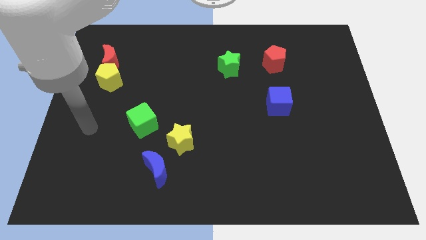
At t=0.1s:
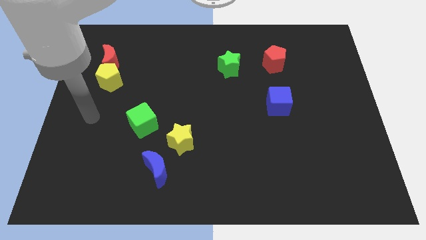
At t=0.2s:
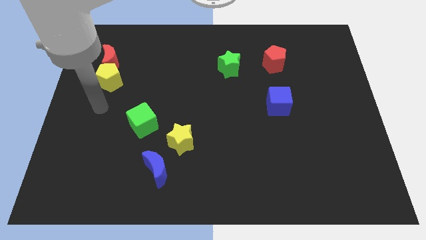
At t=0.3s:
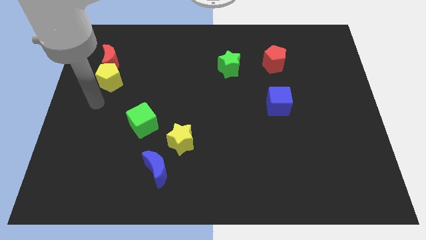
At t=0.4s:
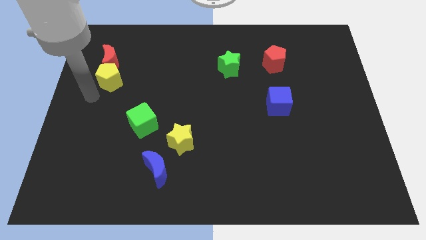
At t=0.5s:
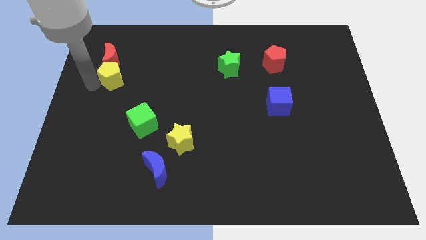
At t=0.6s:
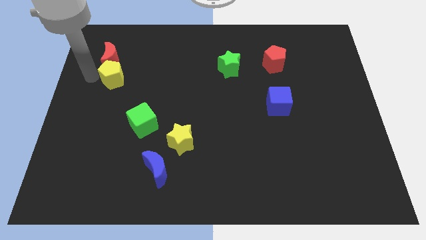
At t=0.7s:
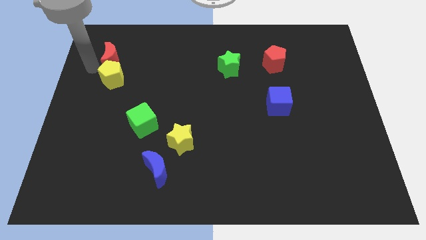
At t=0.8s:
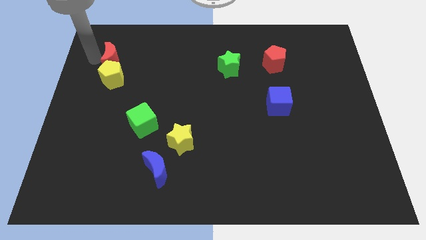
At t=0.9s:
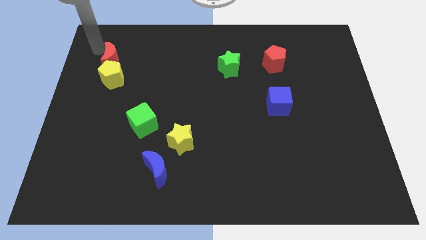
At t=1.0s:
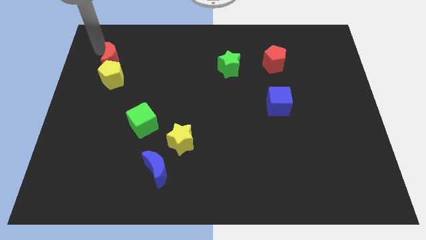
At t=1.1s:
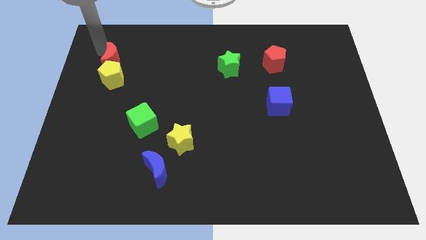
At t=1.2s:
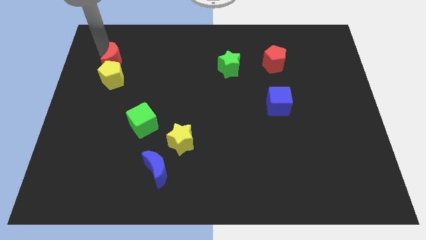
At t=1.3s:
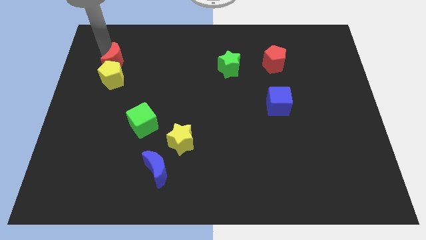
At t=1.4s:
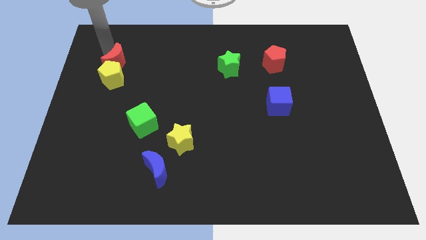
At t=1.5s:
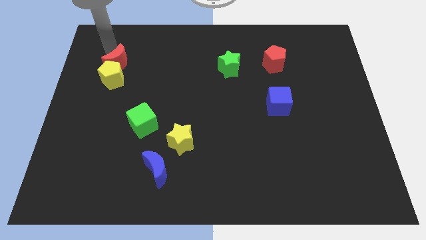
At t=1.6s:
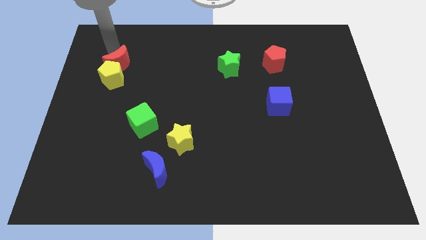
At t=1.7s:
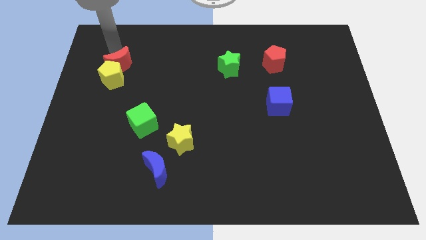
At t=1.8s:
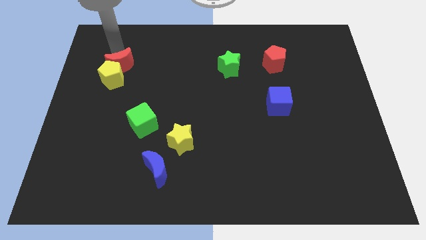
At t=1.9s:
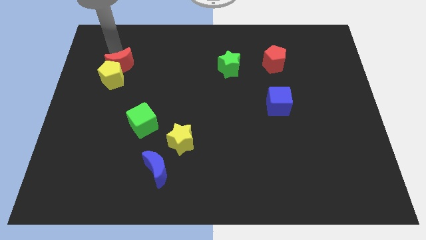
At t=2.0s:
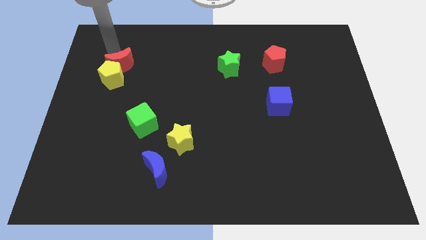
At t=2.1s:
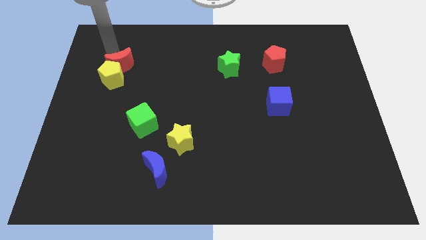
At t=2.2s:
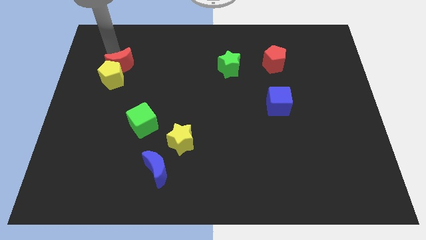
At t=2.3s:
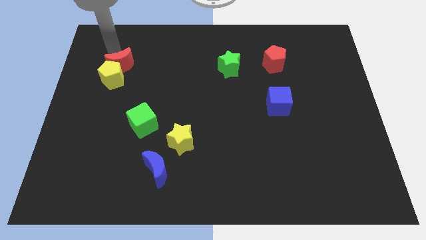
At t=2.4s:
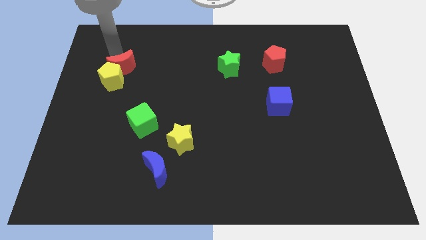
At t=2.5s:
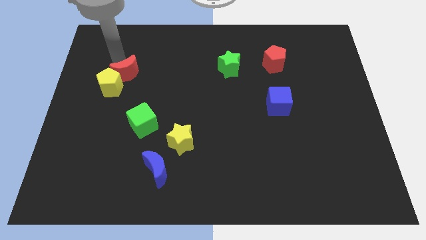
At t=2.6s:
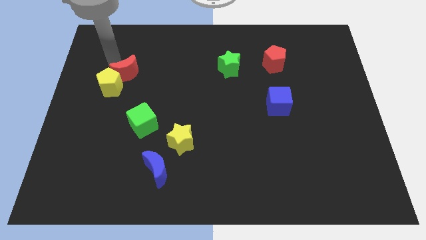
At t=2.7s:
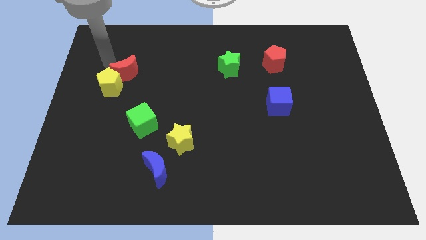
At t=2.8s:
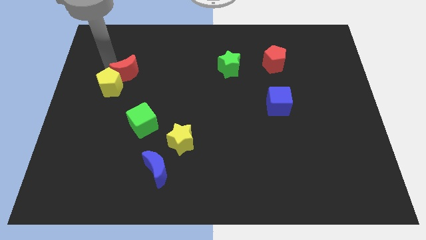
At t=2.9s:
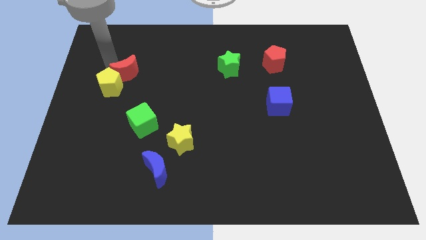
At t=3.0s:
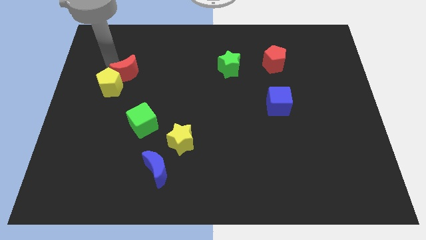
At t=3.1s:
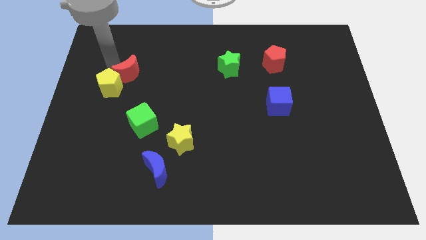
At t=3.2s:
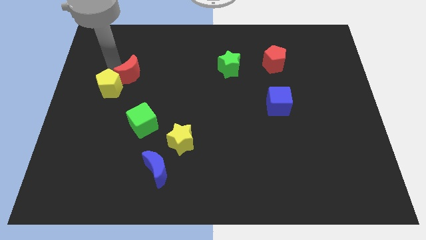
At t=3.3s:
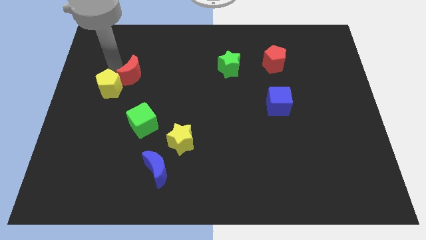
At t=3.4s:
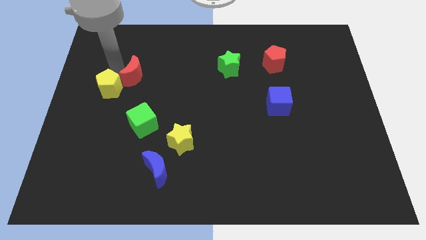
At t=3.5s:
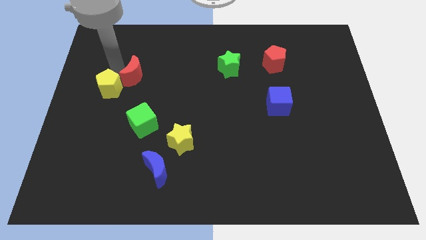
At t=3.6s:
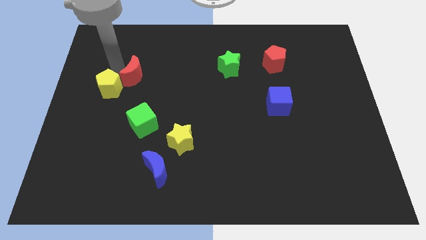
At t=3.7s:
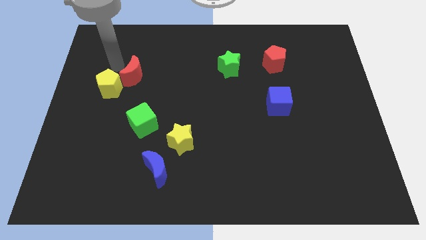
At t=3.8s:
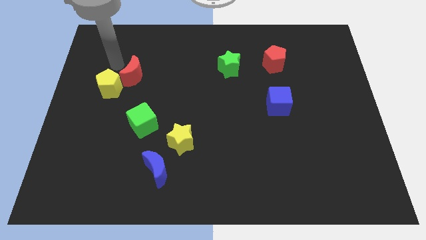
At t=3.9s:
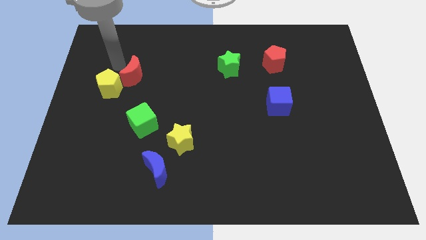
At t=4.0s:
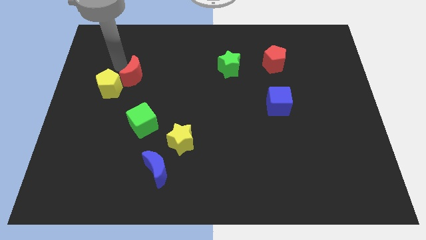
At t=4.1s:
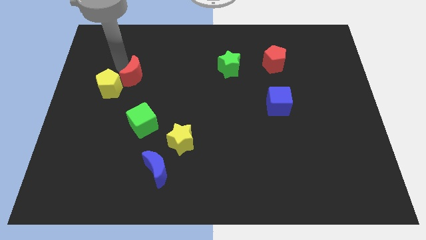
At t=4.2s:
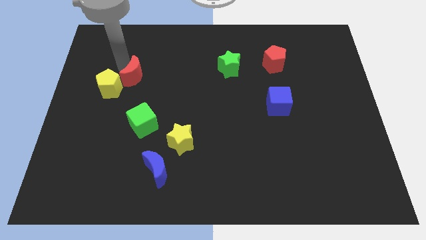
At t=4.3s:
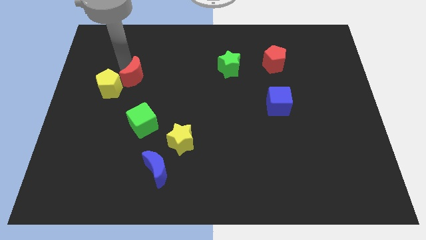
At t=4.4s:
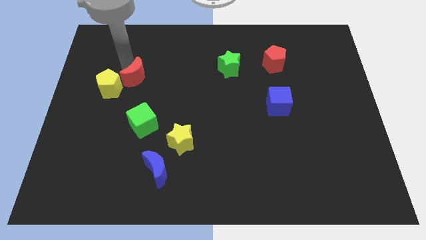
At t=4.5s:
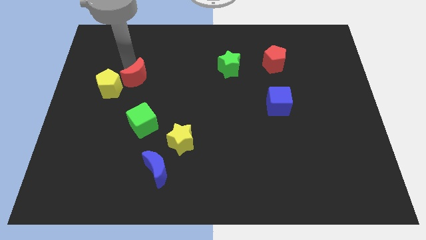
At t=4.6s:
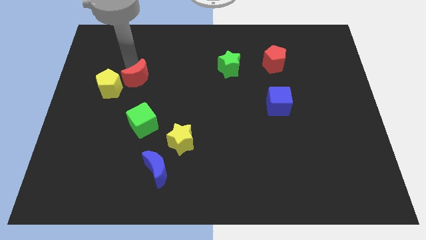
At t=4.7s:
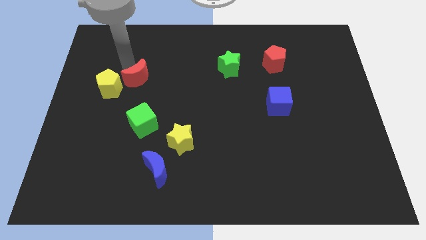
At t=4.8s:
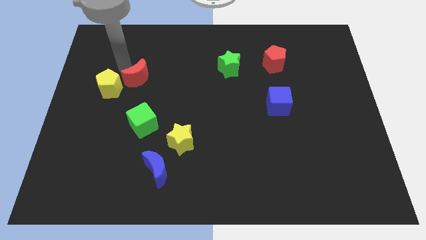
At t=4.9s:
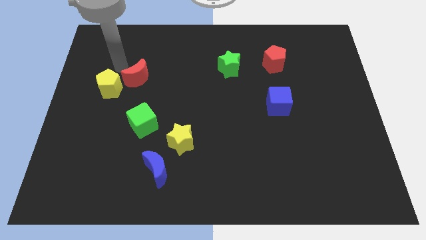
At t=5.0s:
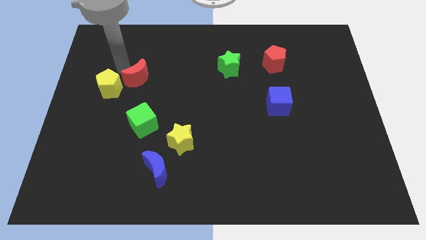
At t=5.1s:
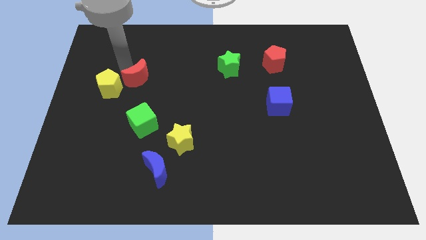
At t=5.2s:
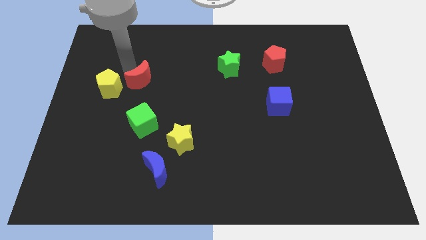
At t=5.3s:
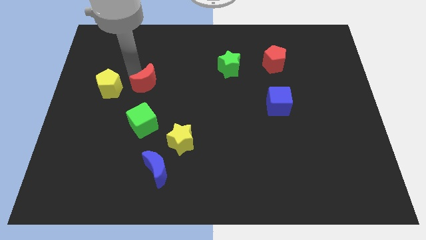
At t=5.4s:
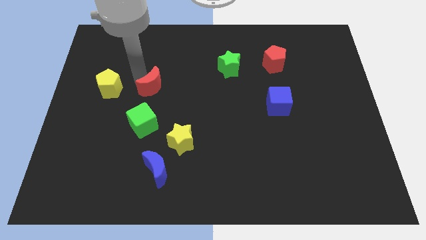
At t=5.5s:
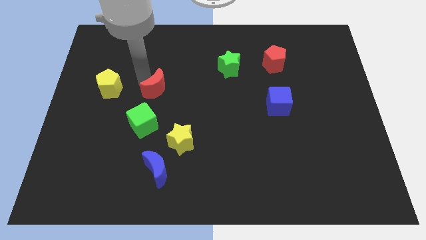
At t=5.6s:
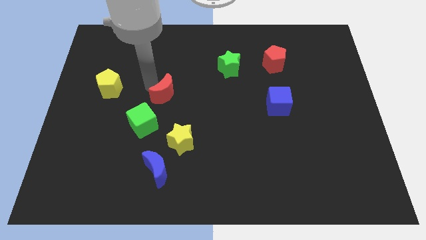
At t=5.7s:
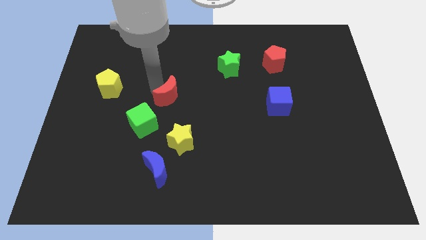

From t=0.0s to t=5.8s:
put the red moon to the top of the yellow star

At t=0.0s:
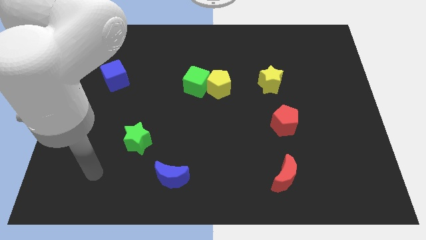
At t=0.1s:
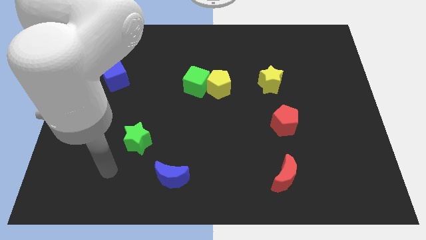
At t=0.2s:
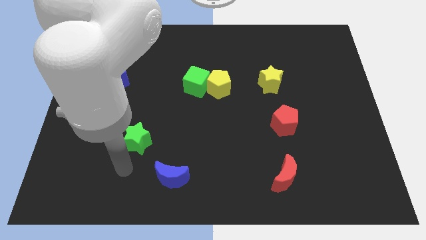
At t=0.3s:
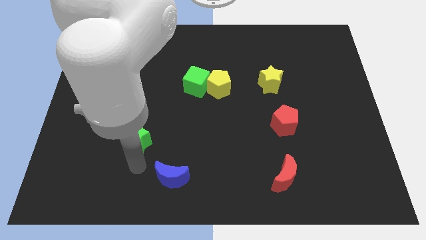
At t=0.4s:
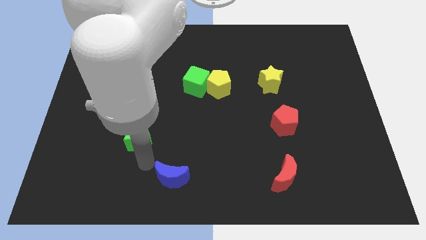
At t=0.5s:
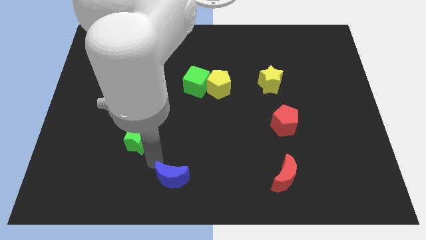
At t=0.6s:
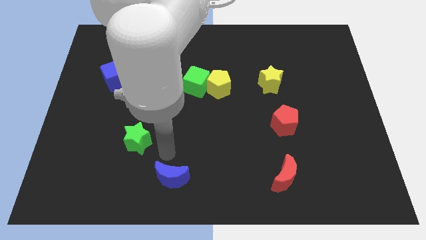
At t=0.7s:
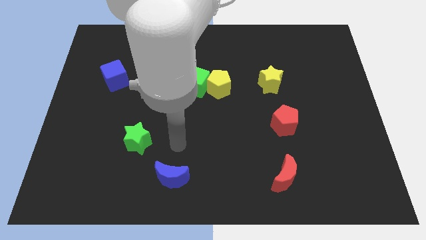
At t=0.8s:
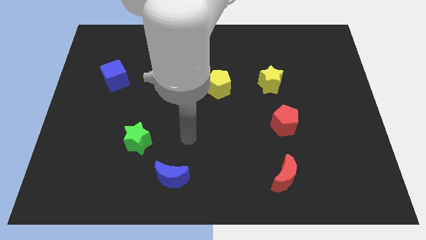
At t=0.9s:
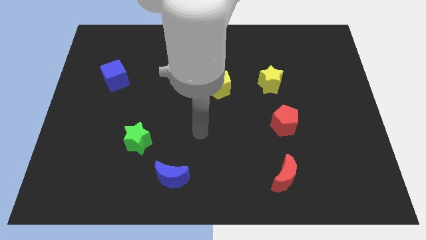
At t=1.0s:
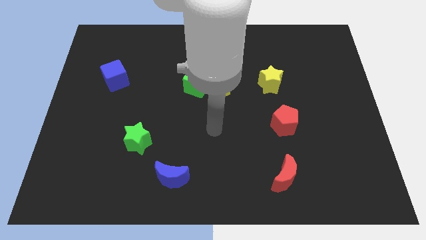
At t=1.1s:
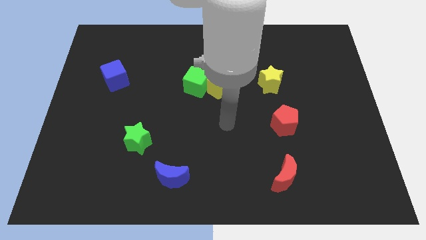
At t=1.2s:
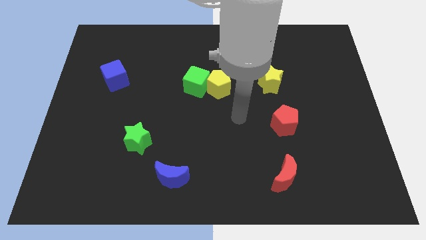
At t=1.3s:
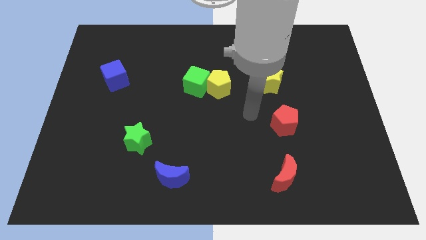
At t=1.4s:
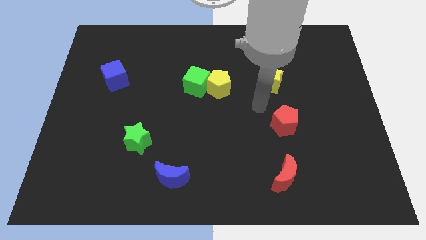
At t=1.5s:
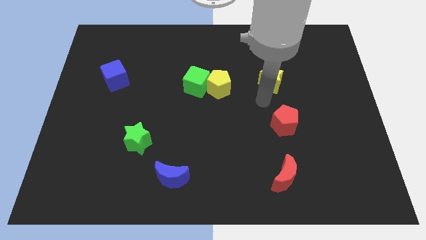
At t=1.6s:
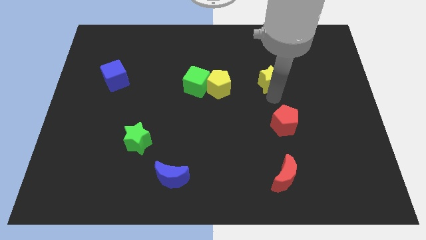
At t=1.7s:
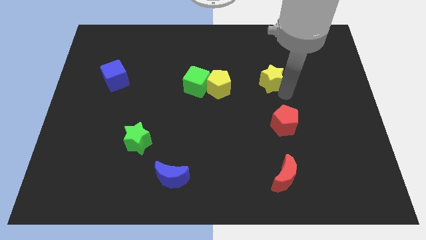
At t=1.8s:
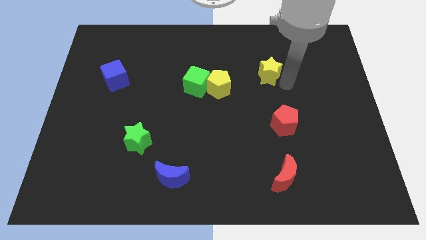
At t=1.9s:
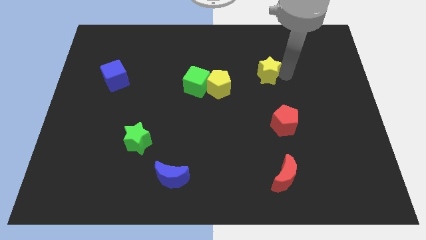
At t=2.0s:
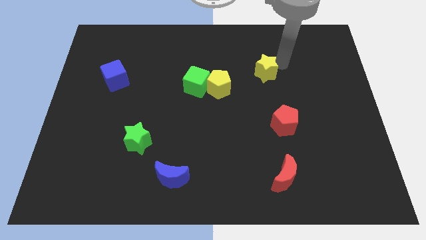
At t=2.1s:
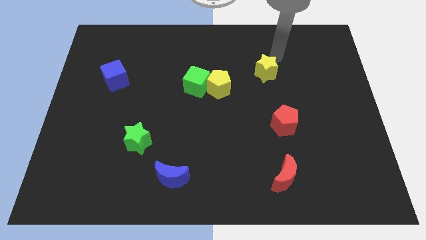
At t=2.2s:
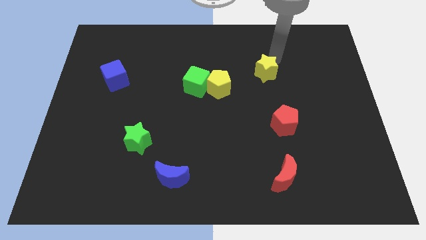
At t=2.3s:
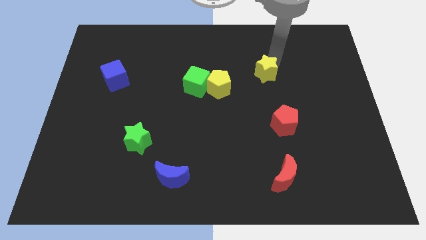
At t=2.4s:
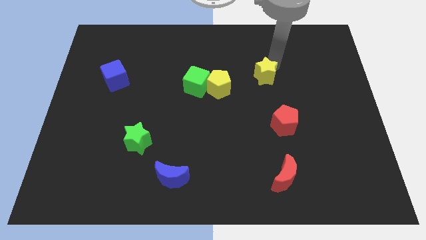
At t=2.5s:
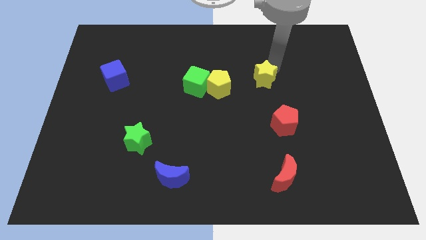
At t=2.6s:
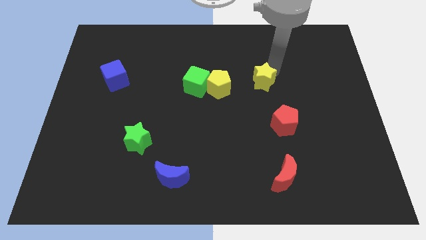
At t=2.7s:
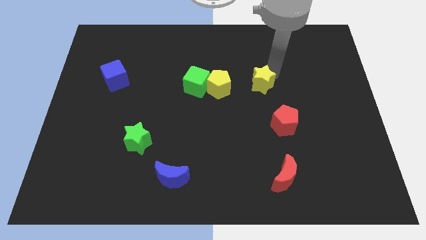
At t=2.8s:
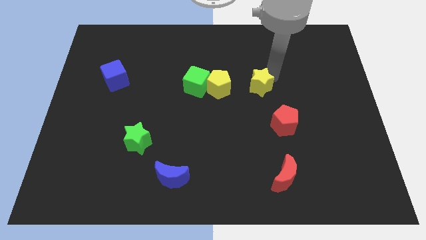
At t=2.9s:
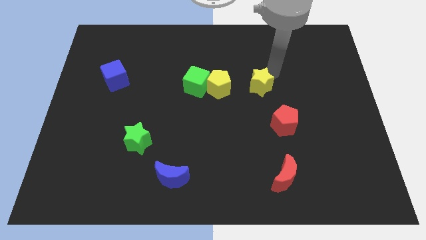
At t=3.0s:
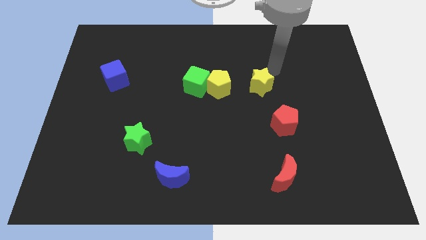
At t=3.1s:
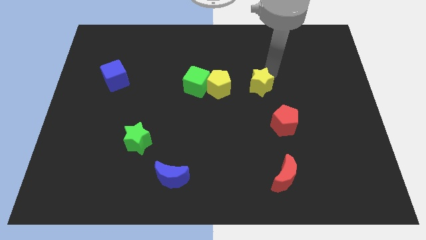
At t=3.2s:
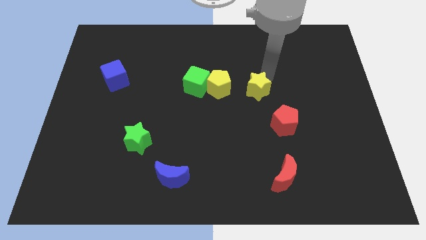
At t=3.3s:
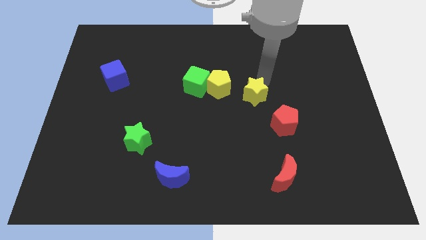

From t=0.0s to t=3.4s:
move the yellow star to the bottom right side of the yellow pentagon
